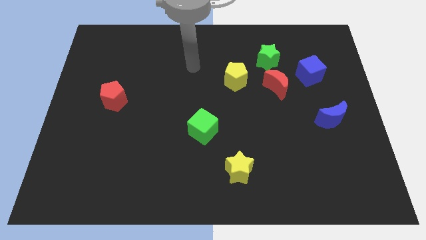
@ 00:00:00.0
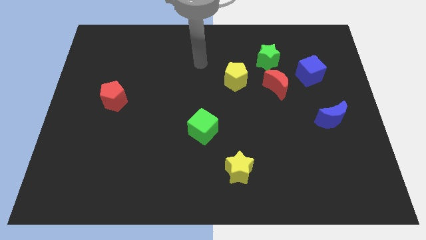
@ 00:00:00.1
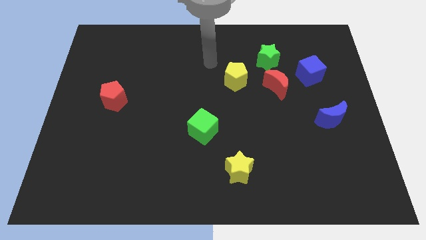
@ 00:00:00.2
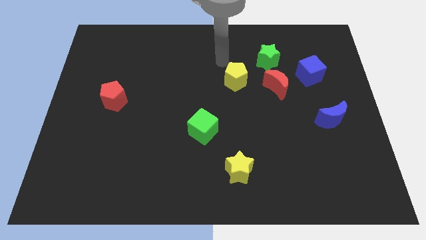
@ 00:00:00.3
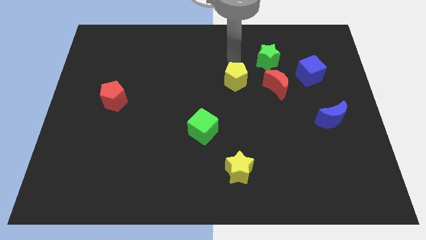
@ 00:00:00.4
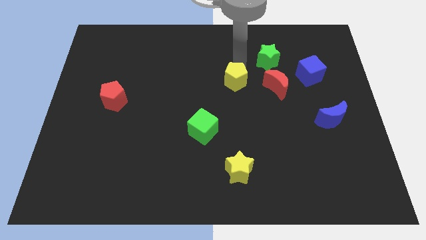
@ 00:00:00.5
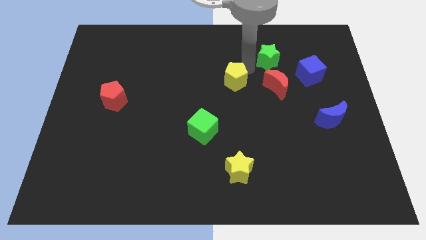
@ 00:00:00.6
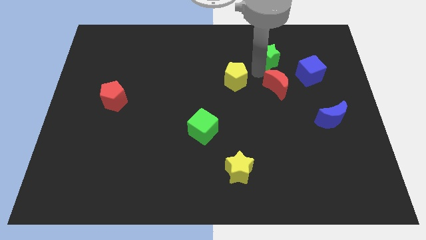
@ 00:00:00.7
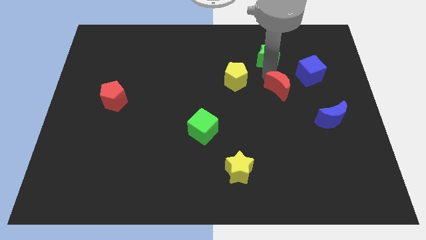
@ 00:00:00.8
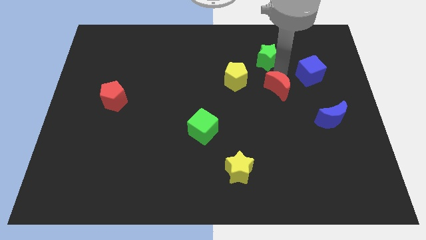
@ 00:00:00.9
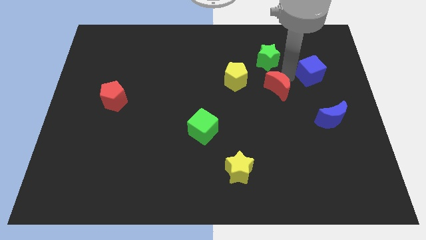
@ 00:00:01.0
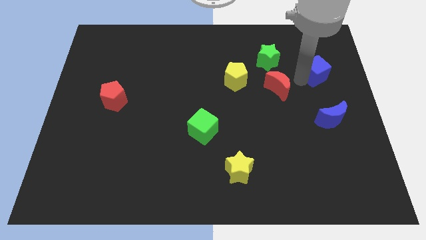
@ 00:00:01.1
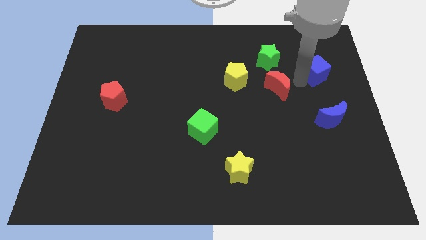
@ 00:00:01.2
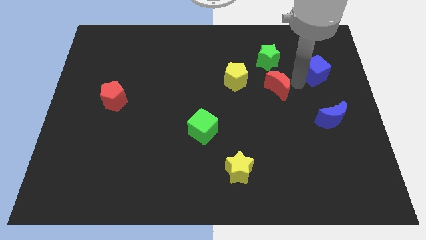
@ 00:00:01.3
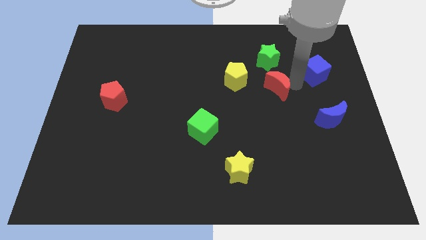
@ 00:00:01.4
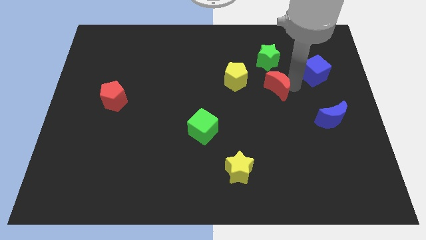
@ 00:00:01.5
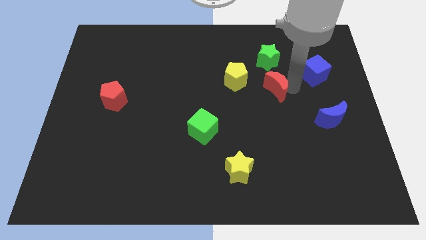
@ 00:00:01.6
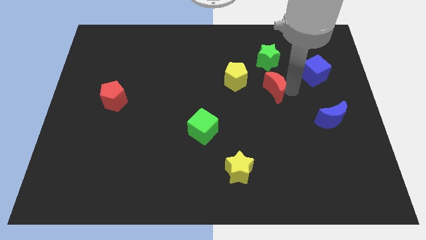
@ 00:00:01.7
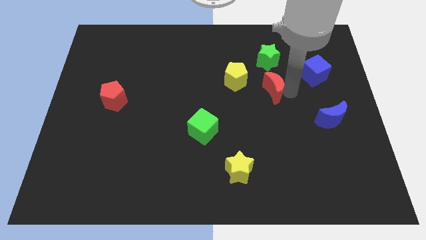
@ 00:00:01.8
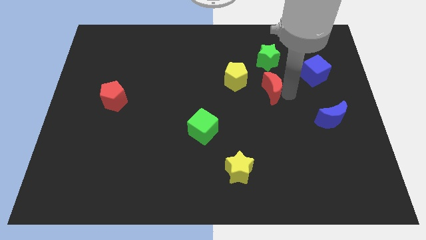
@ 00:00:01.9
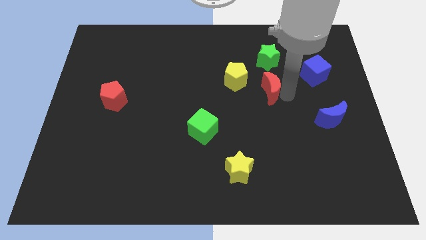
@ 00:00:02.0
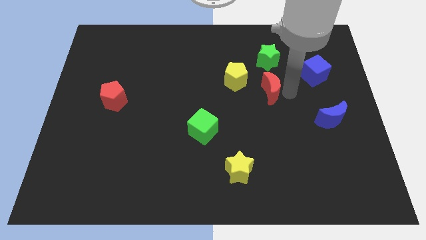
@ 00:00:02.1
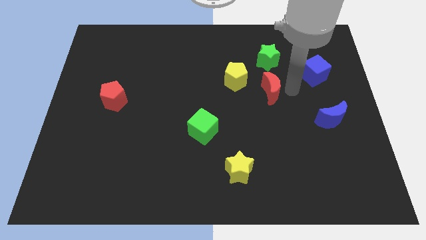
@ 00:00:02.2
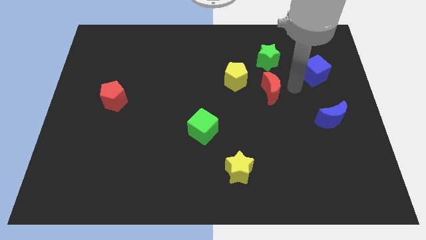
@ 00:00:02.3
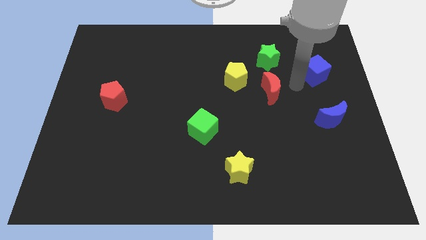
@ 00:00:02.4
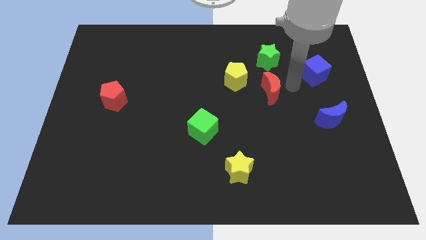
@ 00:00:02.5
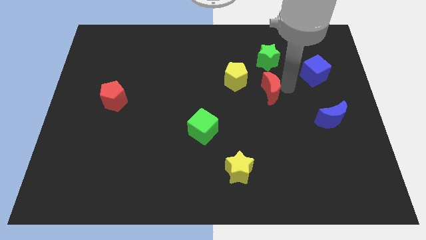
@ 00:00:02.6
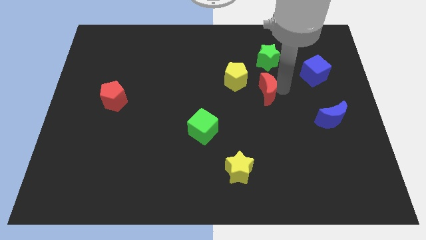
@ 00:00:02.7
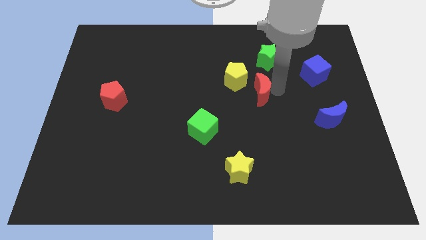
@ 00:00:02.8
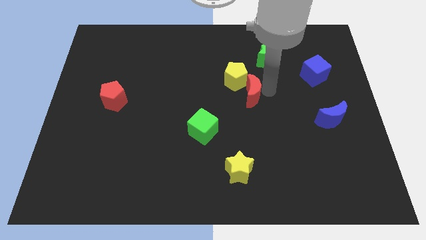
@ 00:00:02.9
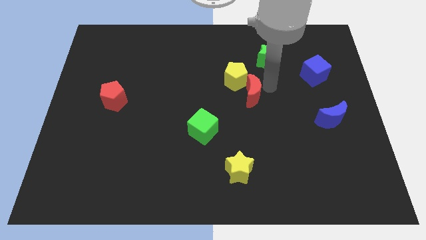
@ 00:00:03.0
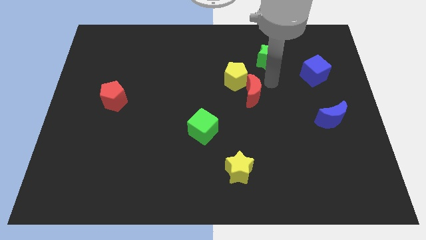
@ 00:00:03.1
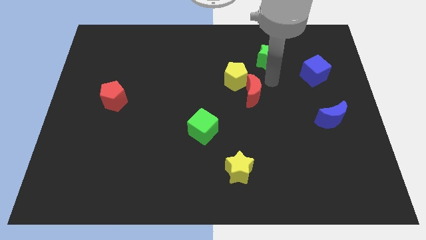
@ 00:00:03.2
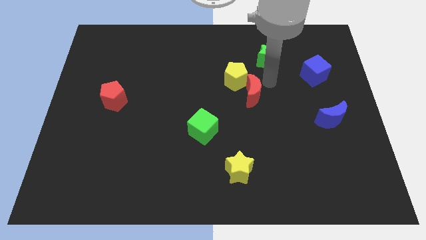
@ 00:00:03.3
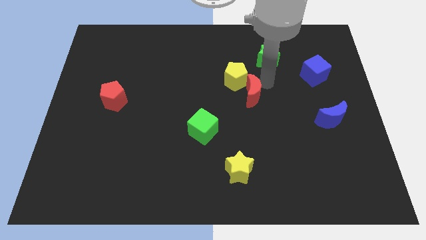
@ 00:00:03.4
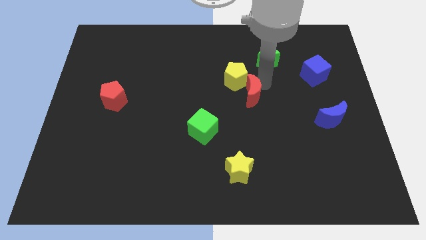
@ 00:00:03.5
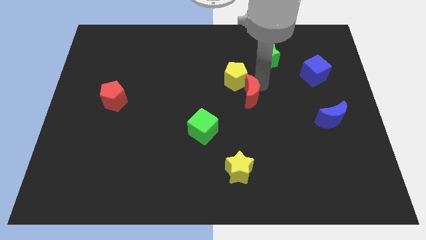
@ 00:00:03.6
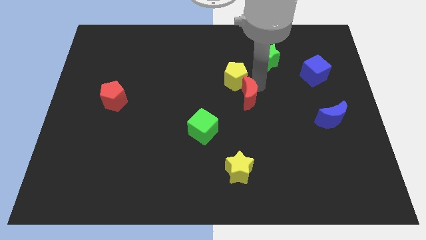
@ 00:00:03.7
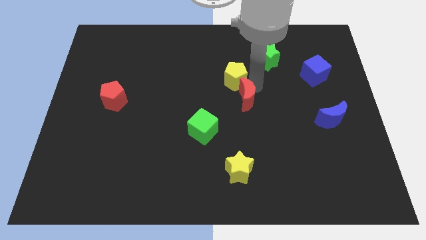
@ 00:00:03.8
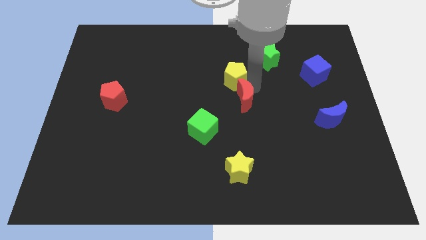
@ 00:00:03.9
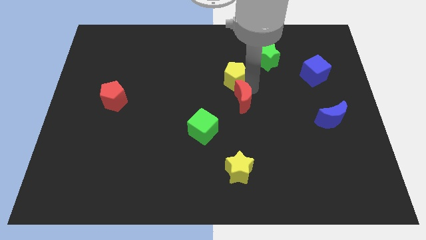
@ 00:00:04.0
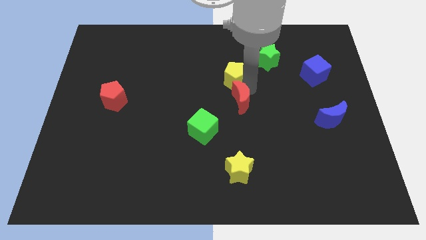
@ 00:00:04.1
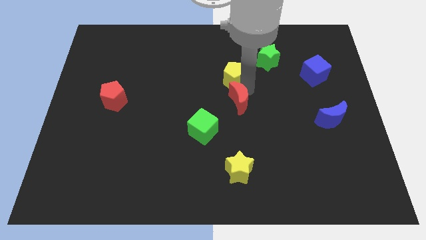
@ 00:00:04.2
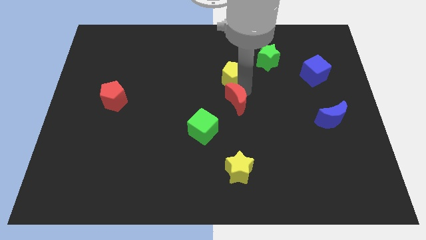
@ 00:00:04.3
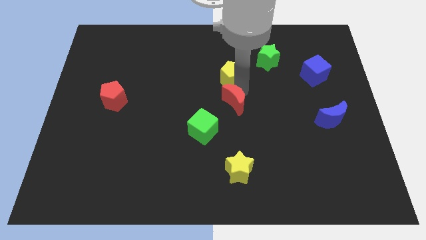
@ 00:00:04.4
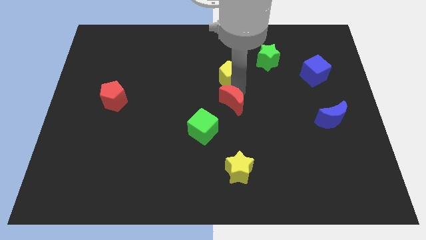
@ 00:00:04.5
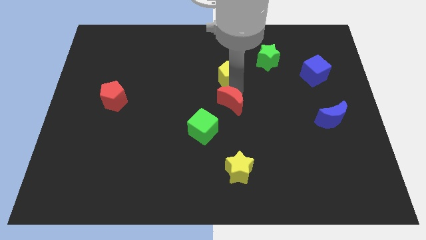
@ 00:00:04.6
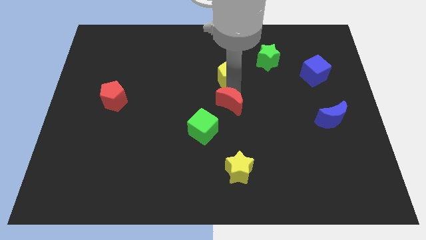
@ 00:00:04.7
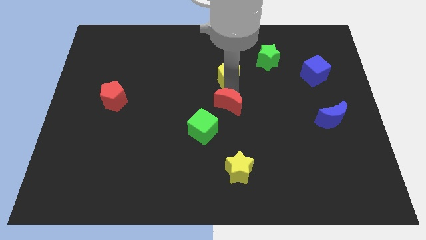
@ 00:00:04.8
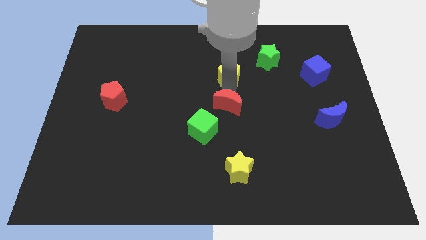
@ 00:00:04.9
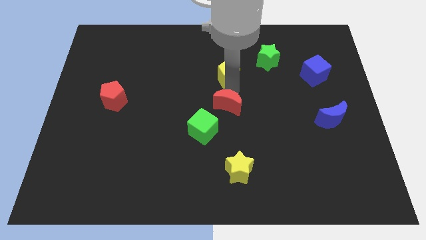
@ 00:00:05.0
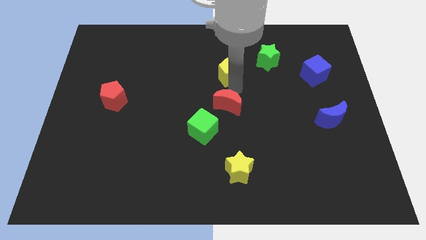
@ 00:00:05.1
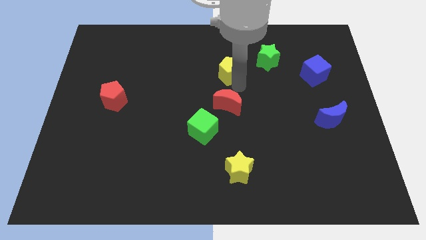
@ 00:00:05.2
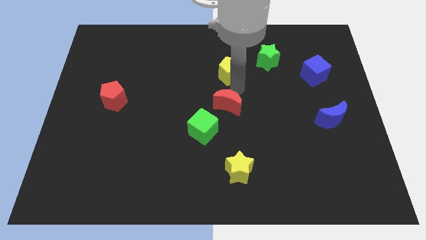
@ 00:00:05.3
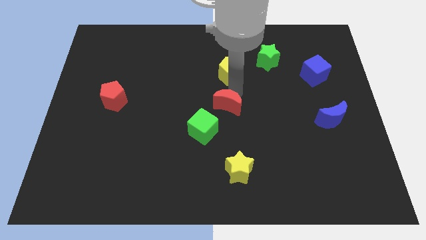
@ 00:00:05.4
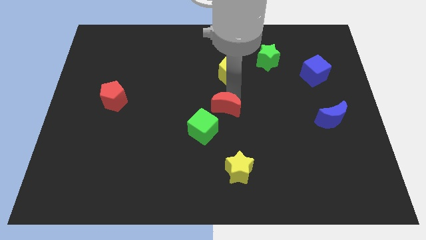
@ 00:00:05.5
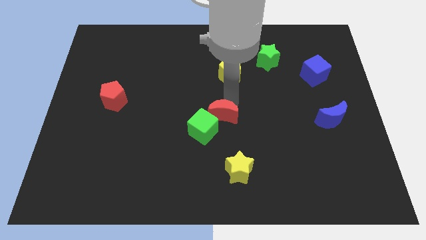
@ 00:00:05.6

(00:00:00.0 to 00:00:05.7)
put the red moon towards the green cube

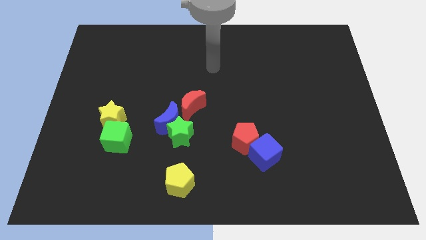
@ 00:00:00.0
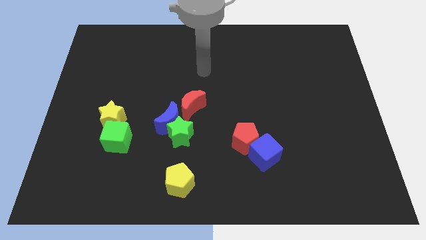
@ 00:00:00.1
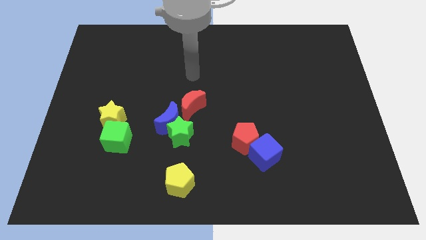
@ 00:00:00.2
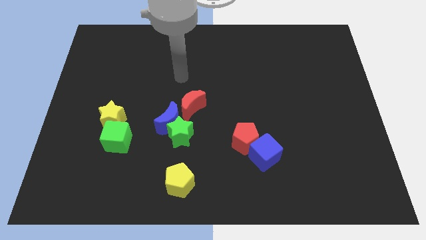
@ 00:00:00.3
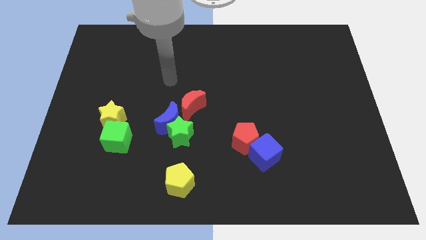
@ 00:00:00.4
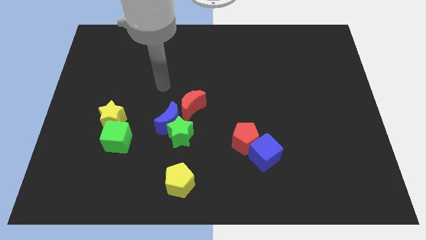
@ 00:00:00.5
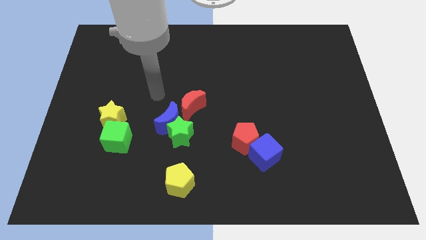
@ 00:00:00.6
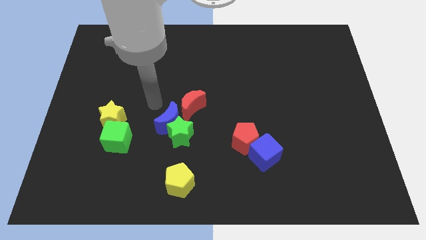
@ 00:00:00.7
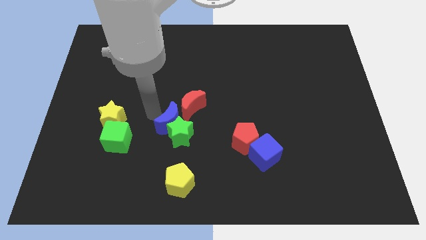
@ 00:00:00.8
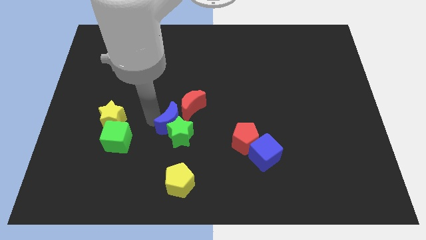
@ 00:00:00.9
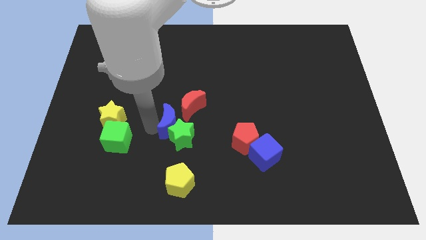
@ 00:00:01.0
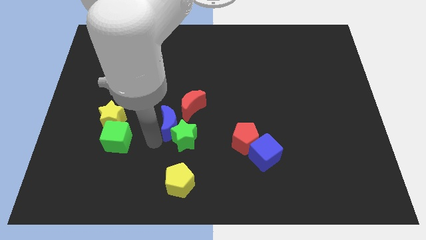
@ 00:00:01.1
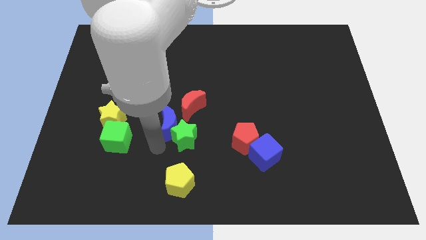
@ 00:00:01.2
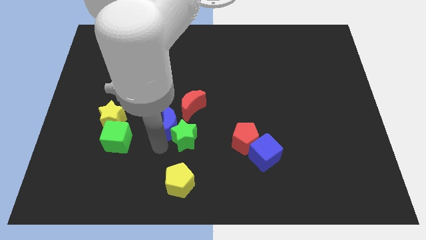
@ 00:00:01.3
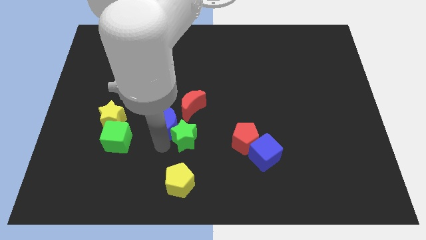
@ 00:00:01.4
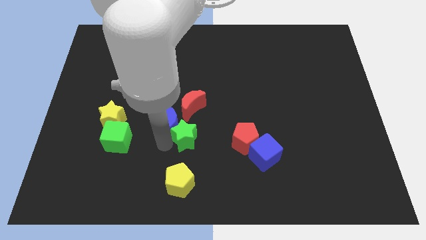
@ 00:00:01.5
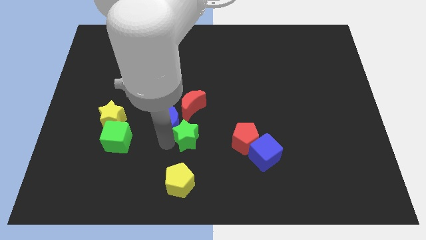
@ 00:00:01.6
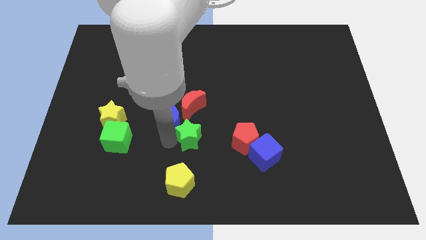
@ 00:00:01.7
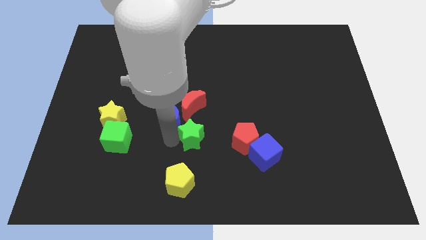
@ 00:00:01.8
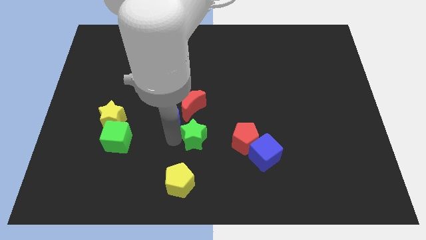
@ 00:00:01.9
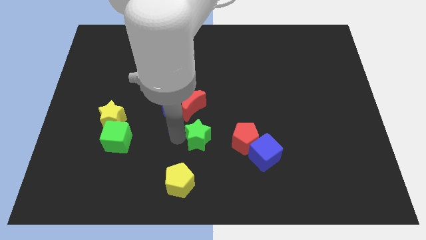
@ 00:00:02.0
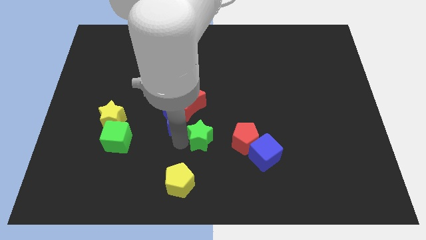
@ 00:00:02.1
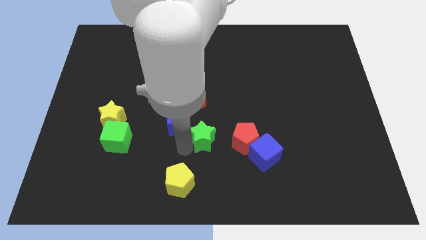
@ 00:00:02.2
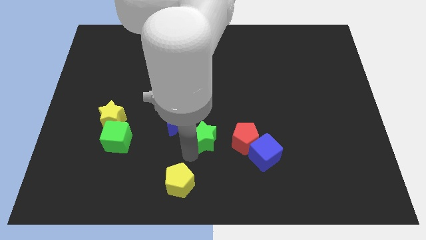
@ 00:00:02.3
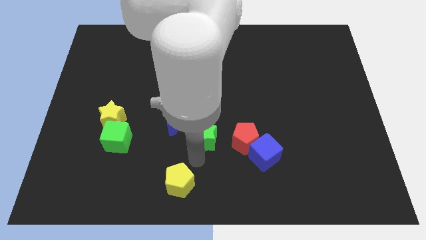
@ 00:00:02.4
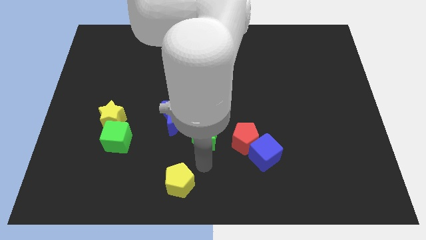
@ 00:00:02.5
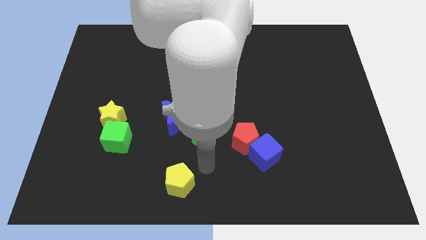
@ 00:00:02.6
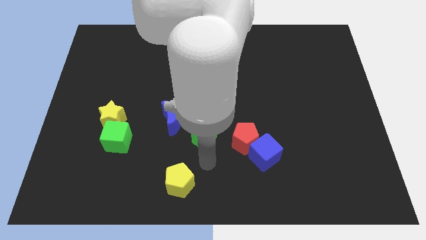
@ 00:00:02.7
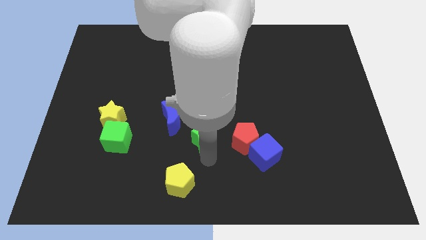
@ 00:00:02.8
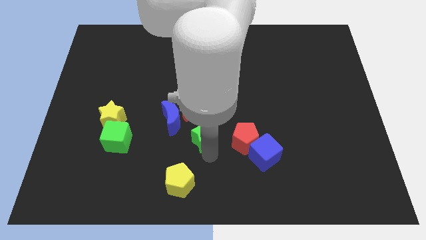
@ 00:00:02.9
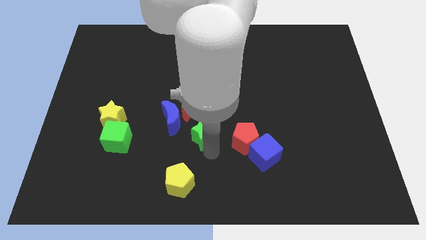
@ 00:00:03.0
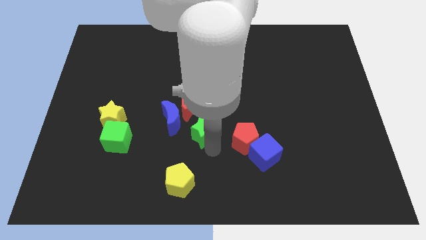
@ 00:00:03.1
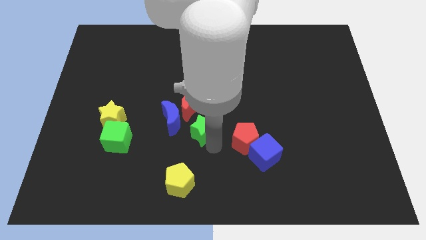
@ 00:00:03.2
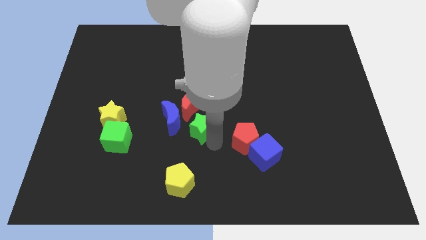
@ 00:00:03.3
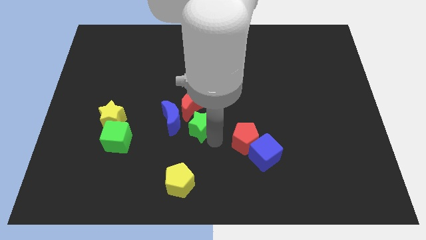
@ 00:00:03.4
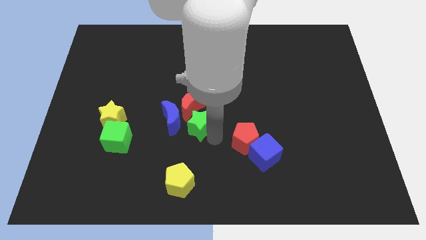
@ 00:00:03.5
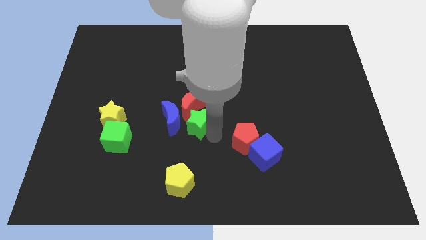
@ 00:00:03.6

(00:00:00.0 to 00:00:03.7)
move the green star close to the red moon
